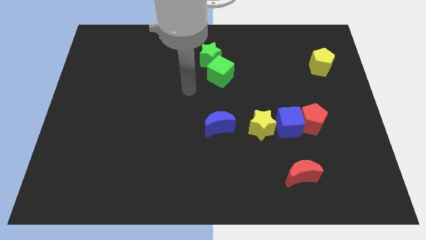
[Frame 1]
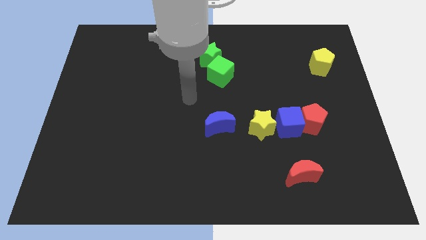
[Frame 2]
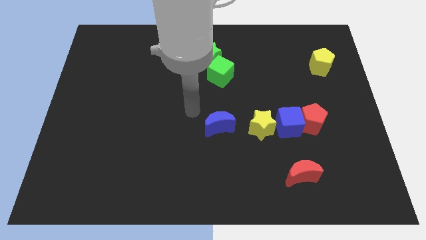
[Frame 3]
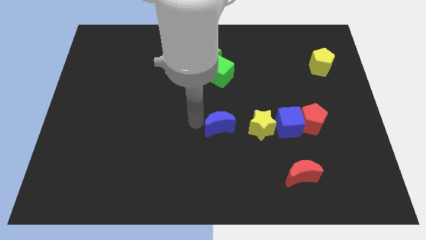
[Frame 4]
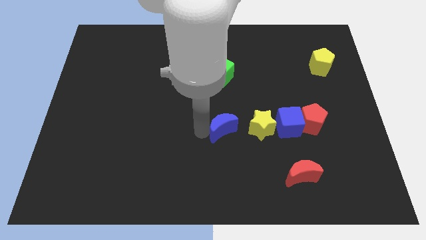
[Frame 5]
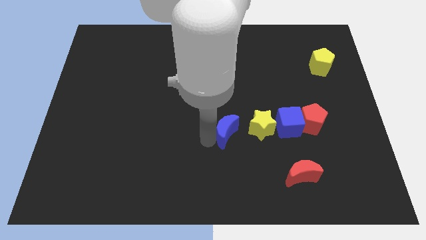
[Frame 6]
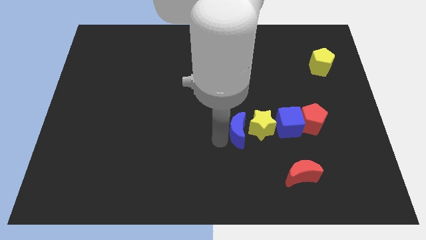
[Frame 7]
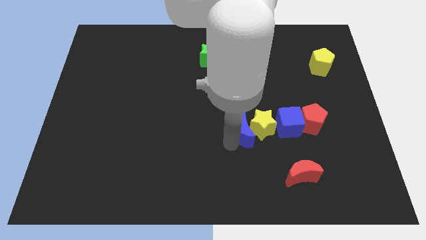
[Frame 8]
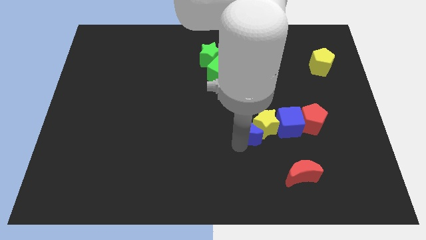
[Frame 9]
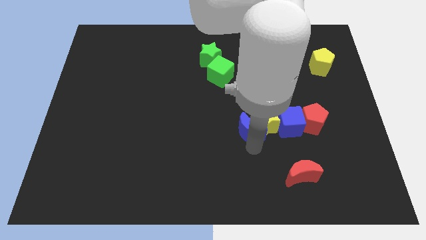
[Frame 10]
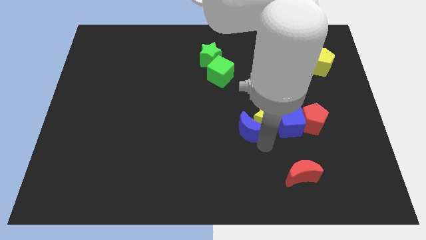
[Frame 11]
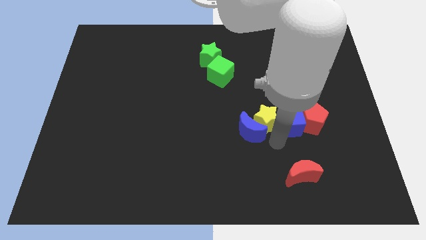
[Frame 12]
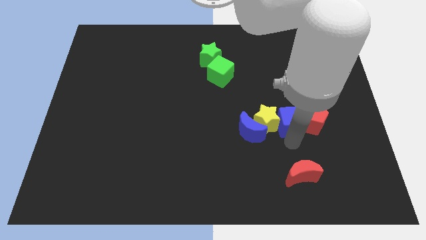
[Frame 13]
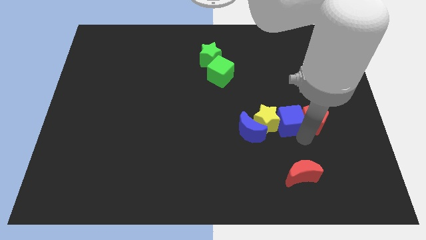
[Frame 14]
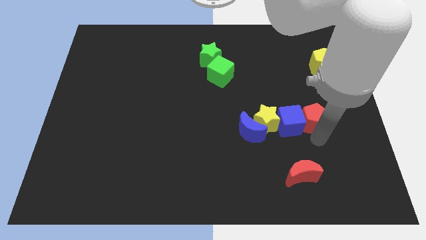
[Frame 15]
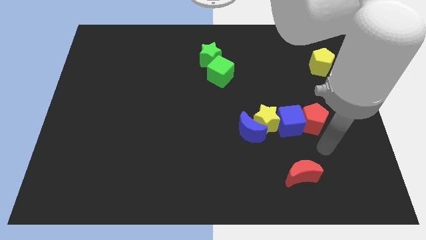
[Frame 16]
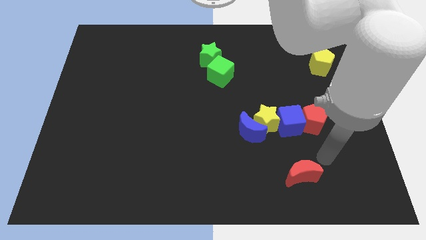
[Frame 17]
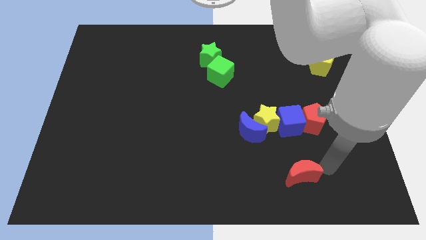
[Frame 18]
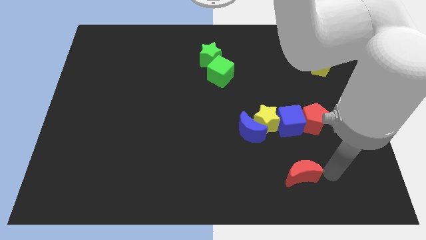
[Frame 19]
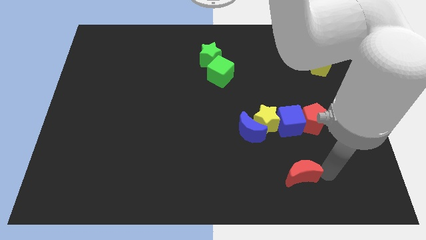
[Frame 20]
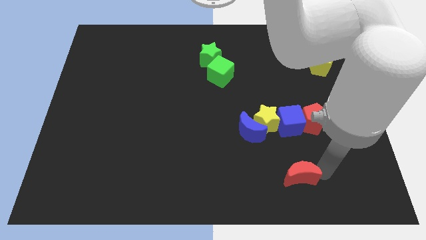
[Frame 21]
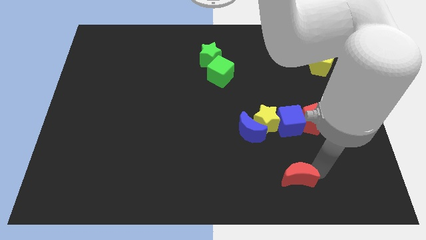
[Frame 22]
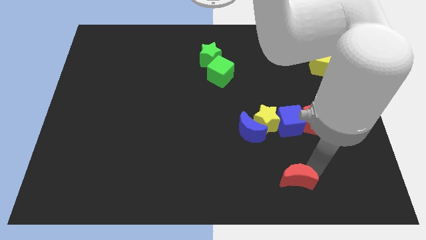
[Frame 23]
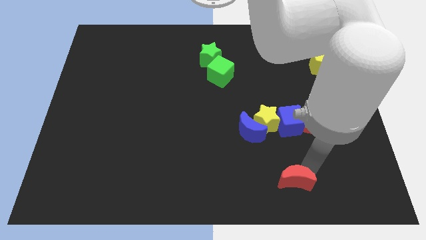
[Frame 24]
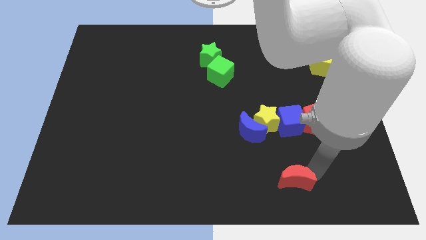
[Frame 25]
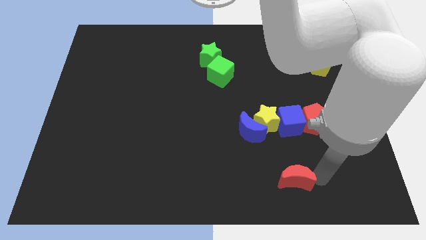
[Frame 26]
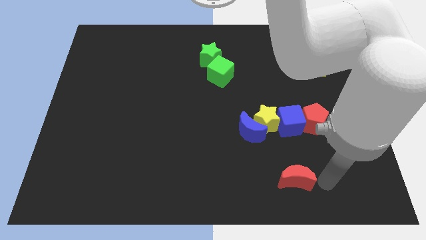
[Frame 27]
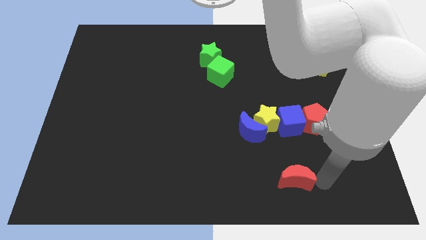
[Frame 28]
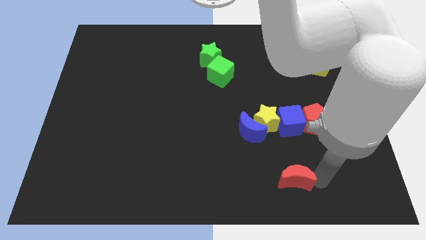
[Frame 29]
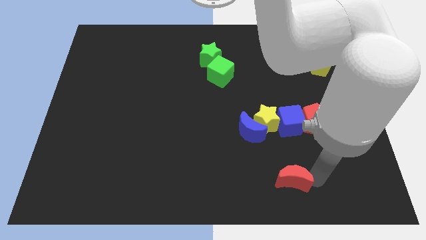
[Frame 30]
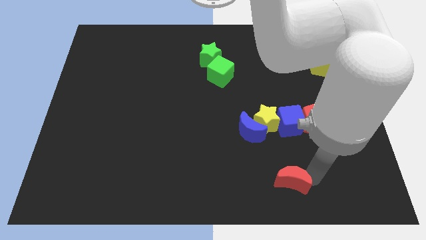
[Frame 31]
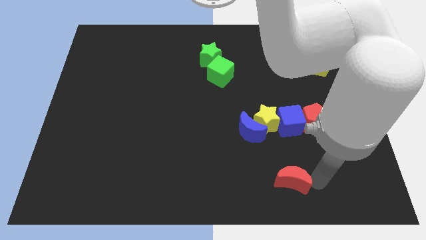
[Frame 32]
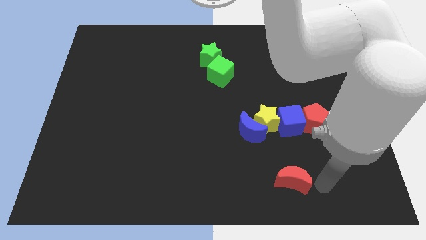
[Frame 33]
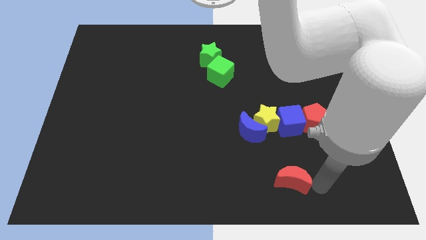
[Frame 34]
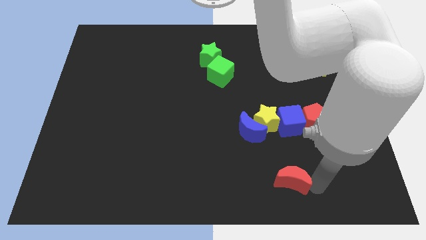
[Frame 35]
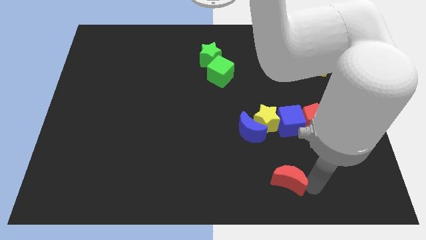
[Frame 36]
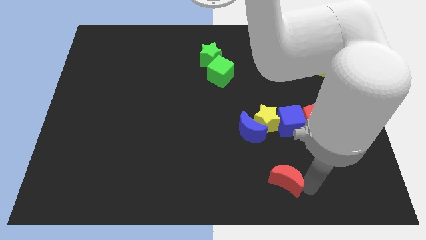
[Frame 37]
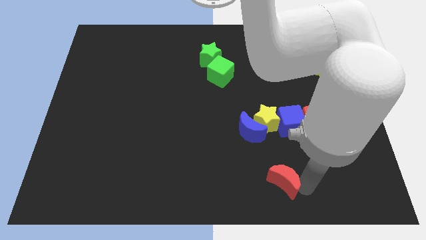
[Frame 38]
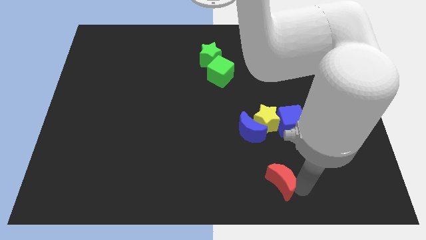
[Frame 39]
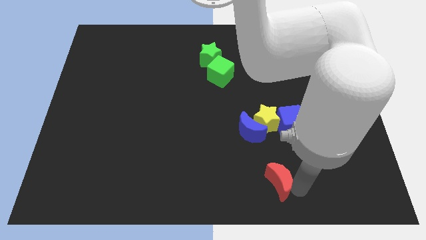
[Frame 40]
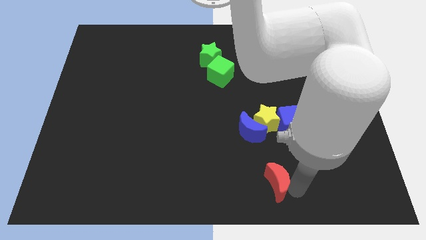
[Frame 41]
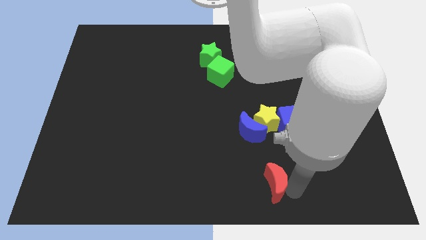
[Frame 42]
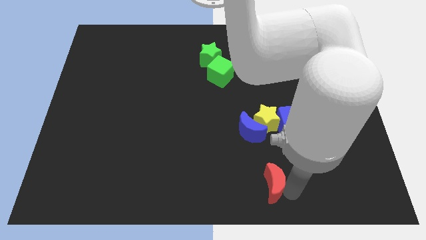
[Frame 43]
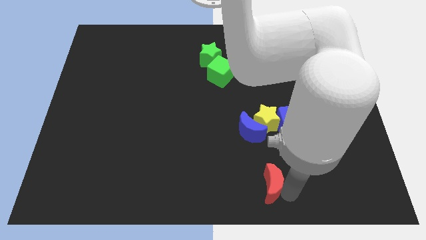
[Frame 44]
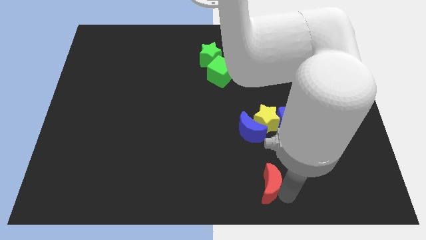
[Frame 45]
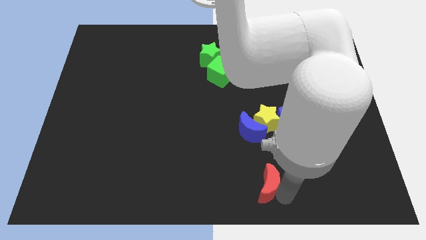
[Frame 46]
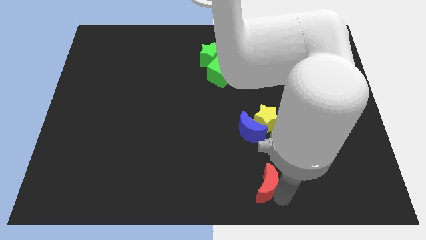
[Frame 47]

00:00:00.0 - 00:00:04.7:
slide the red moon left a little

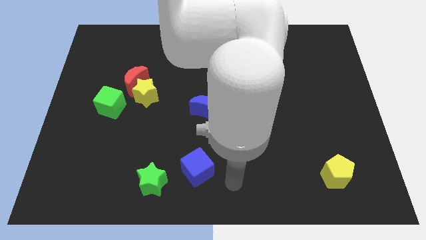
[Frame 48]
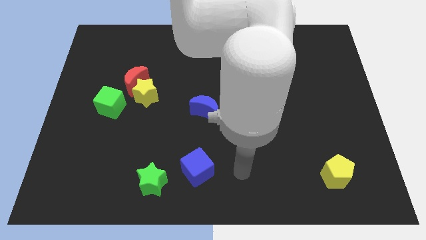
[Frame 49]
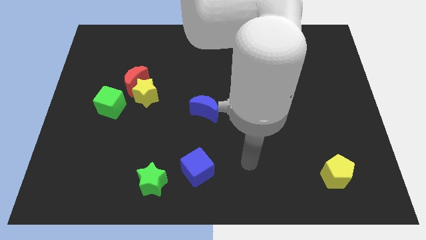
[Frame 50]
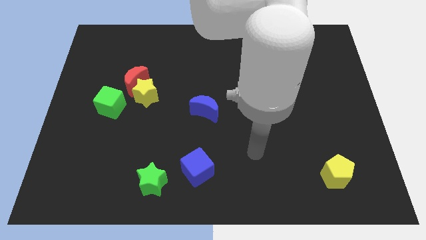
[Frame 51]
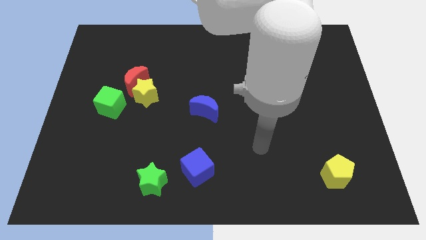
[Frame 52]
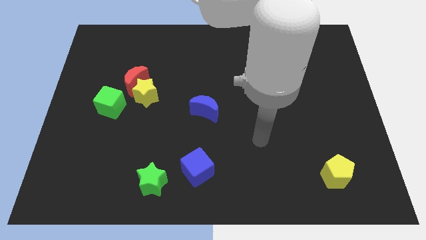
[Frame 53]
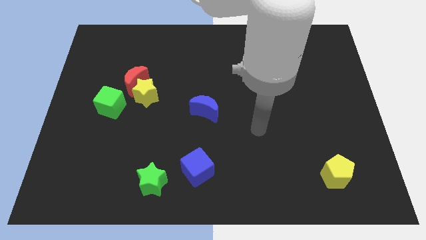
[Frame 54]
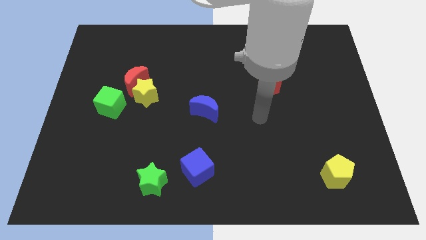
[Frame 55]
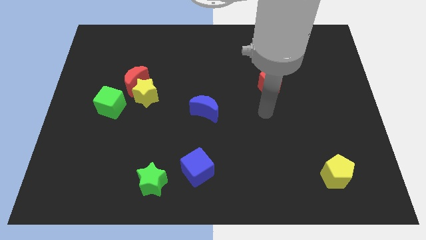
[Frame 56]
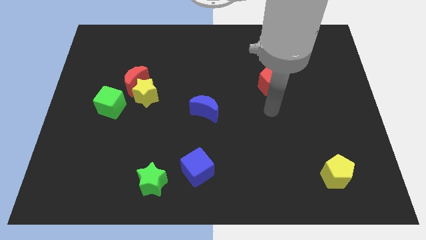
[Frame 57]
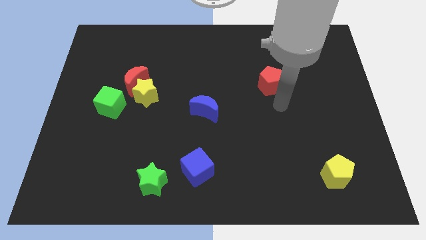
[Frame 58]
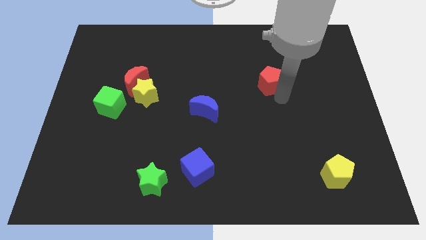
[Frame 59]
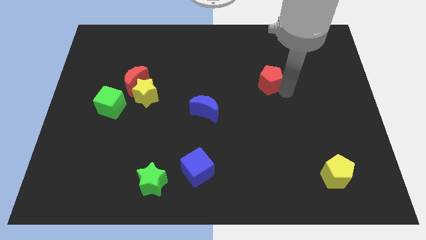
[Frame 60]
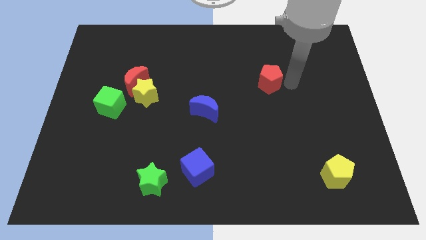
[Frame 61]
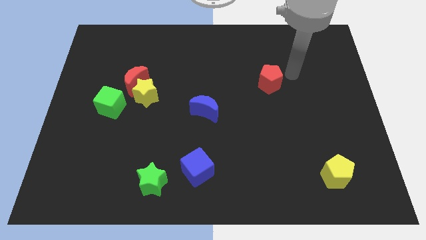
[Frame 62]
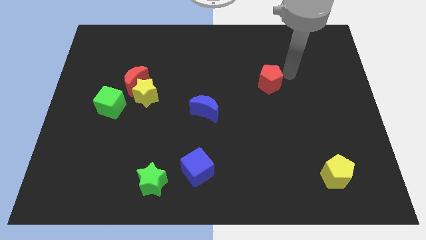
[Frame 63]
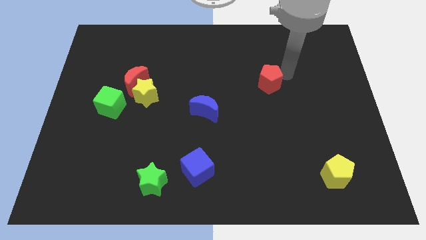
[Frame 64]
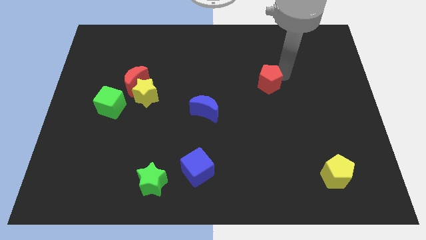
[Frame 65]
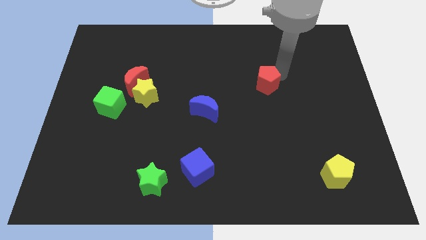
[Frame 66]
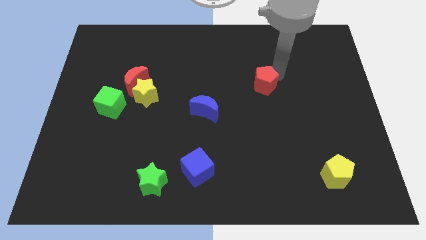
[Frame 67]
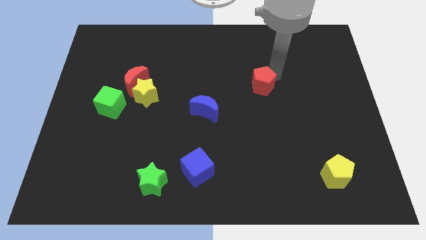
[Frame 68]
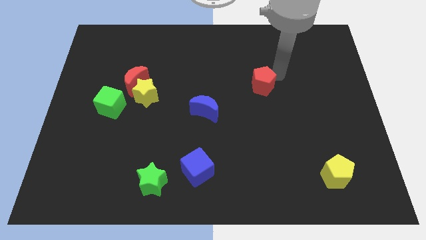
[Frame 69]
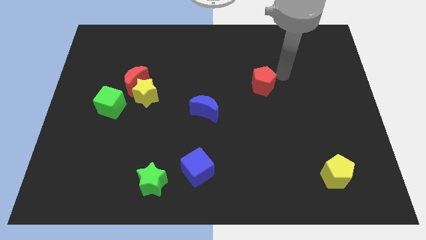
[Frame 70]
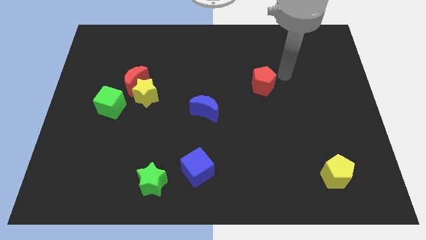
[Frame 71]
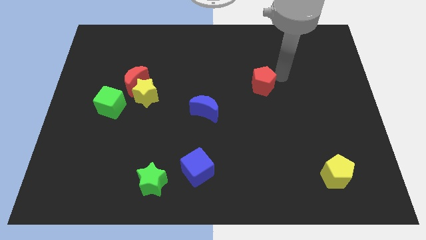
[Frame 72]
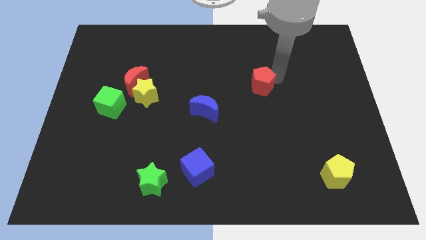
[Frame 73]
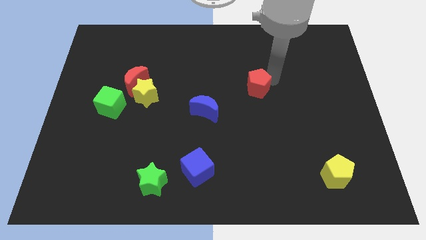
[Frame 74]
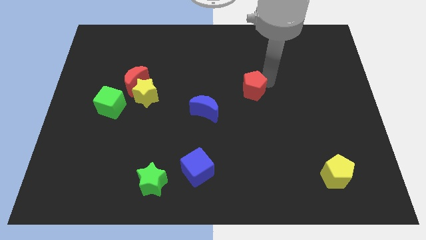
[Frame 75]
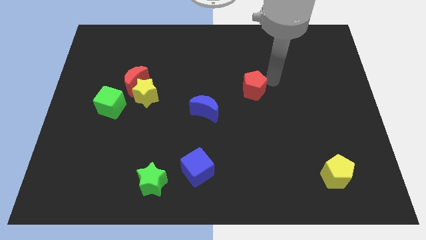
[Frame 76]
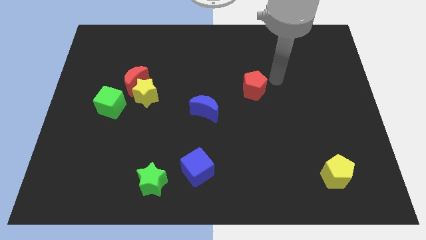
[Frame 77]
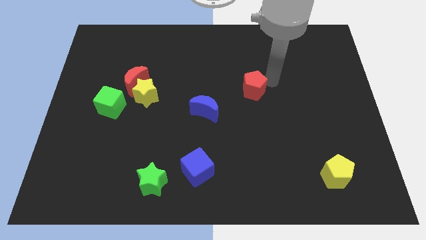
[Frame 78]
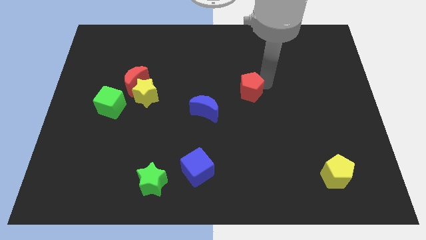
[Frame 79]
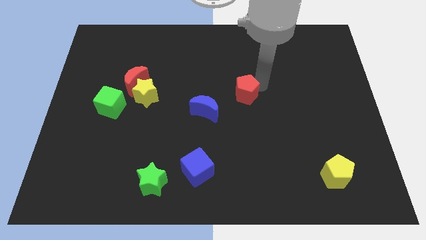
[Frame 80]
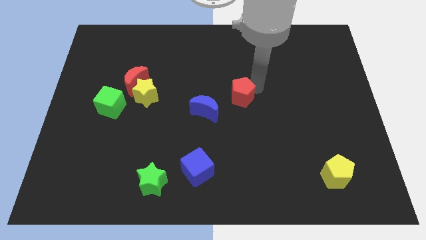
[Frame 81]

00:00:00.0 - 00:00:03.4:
slightly slide the red pentagon down and left diagonally
